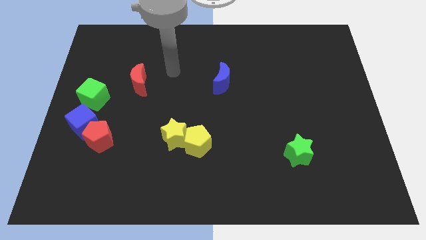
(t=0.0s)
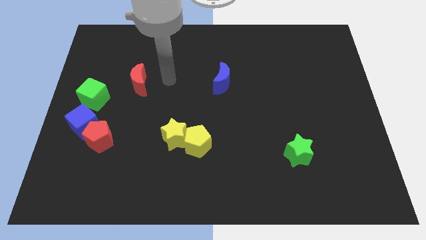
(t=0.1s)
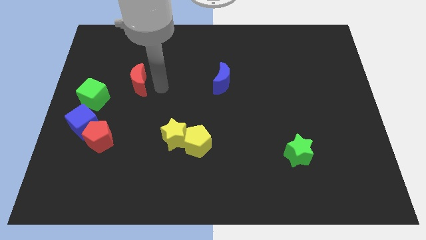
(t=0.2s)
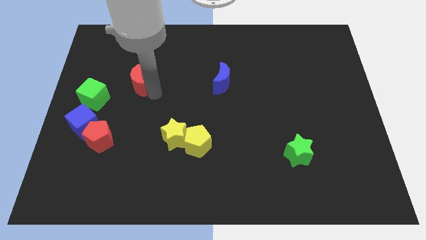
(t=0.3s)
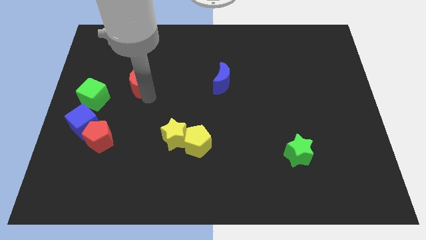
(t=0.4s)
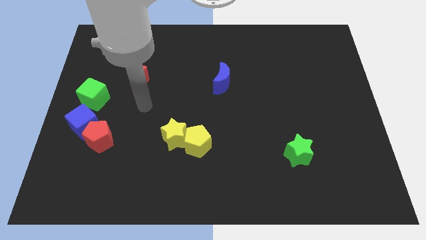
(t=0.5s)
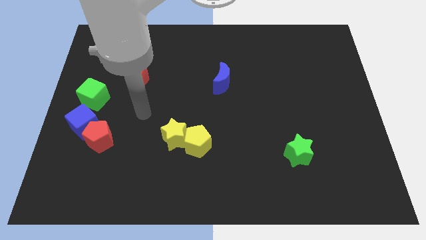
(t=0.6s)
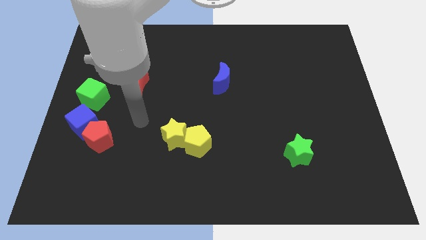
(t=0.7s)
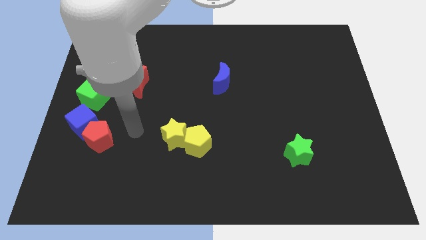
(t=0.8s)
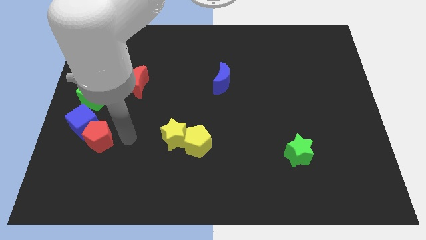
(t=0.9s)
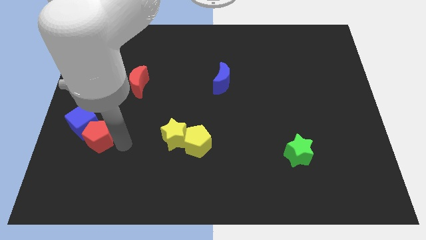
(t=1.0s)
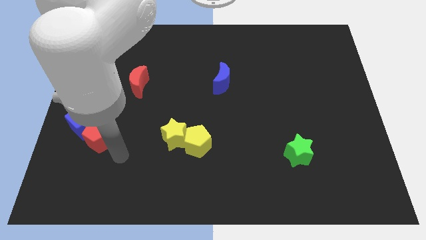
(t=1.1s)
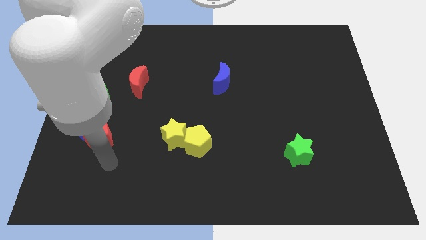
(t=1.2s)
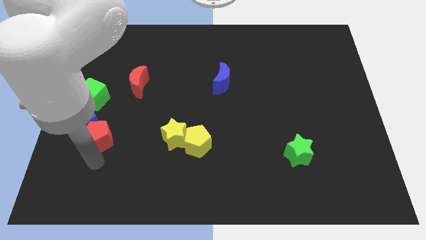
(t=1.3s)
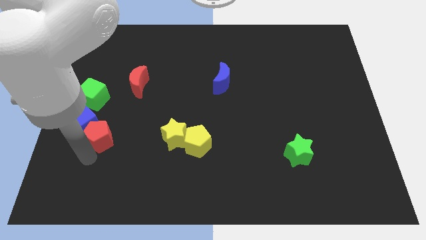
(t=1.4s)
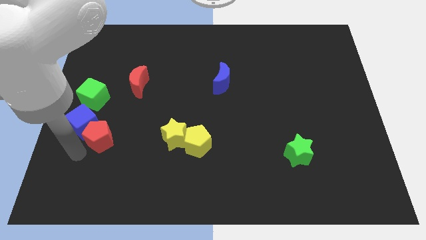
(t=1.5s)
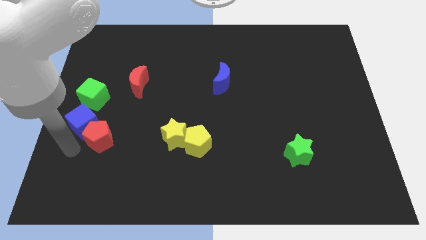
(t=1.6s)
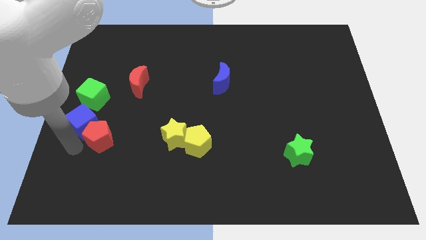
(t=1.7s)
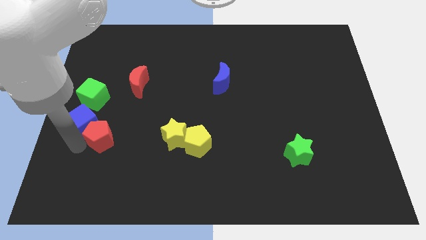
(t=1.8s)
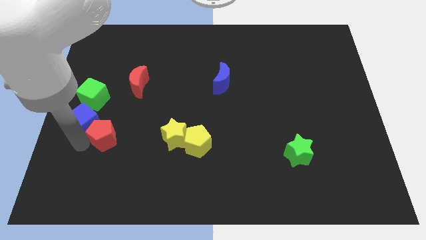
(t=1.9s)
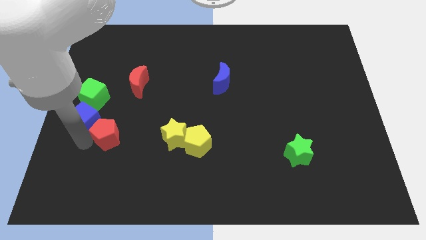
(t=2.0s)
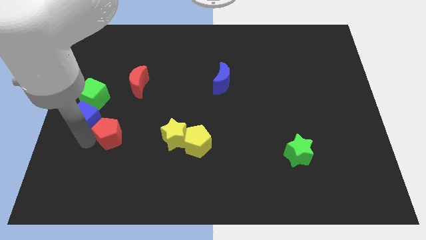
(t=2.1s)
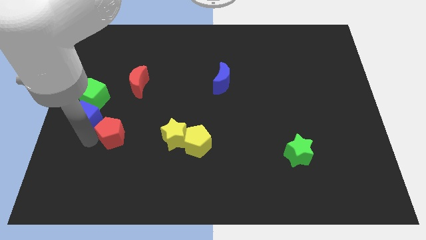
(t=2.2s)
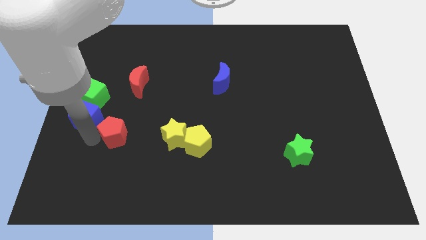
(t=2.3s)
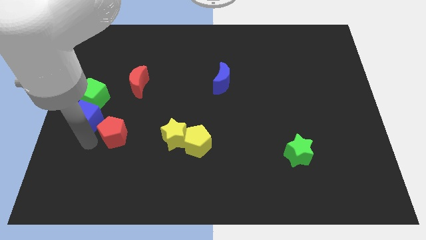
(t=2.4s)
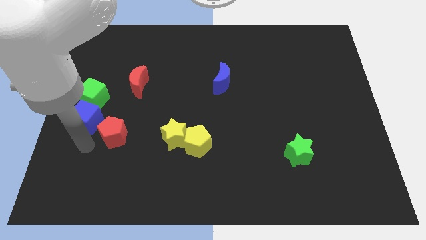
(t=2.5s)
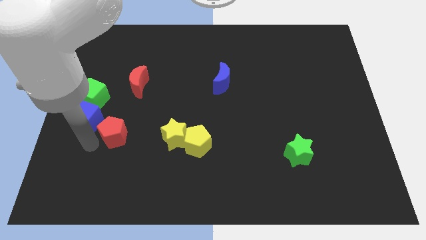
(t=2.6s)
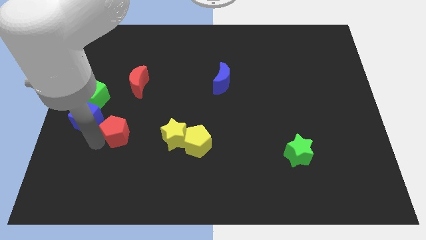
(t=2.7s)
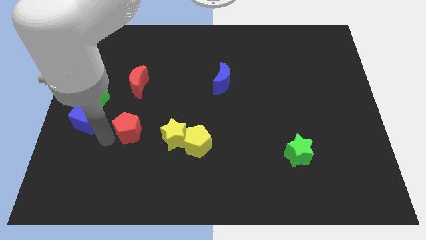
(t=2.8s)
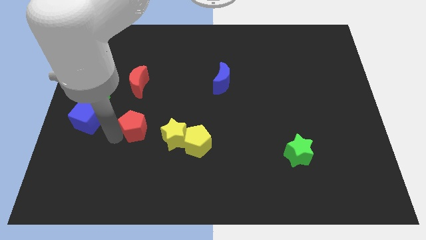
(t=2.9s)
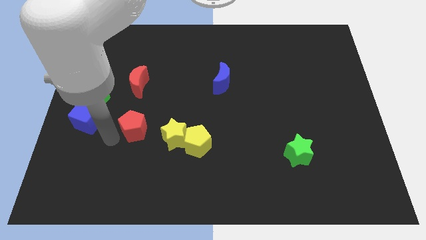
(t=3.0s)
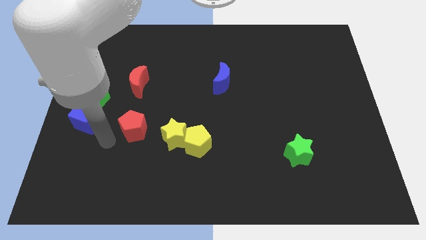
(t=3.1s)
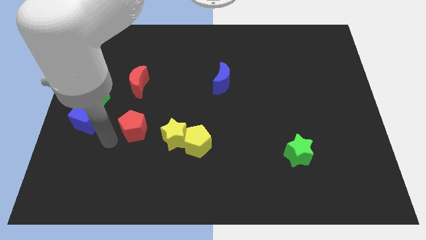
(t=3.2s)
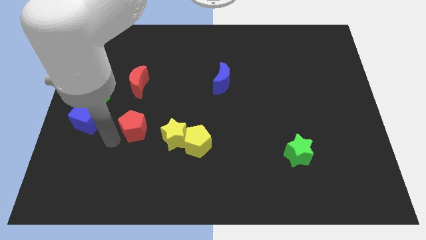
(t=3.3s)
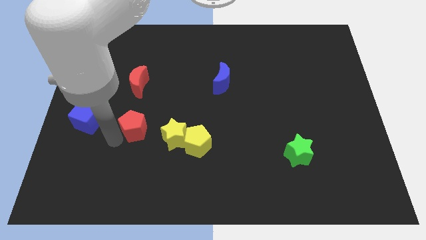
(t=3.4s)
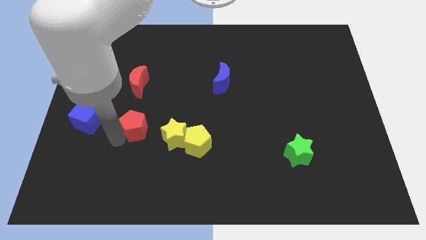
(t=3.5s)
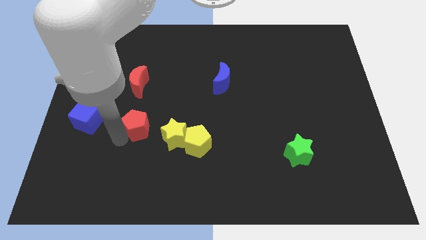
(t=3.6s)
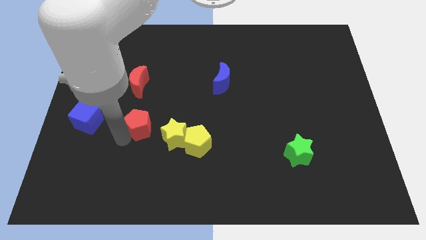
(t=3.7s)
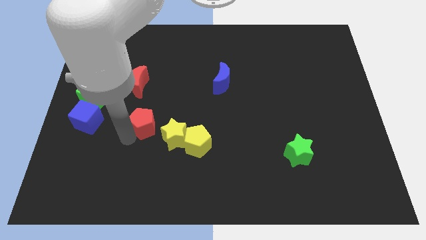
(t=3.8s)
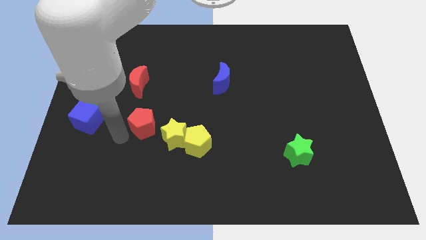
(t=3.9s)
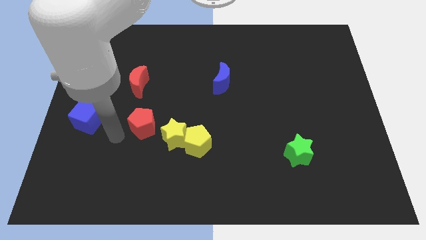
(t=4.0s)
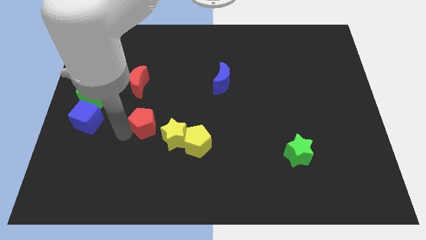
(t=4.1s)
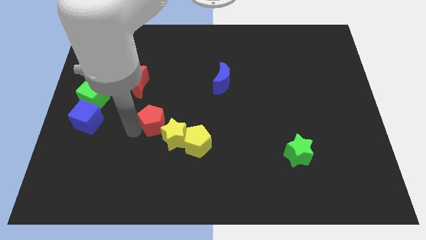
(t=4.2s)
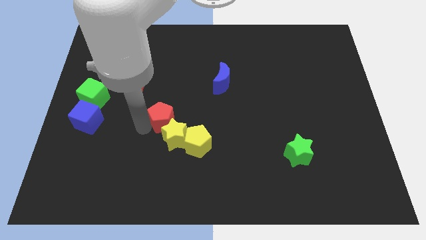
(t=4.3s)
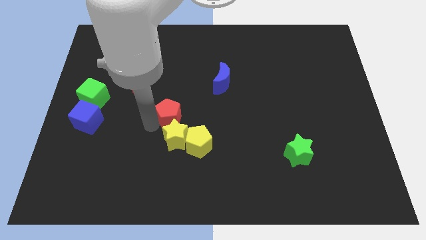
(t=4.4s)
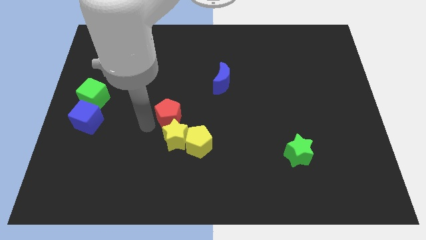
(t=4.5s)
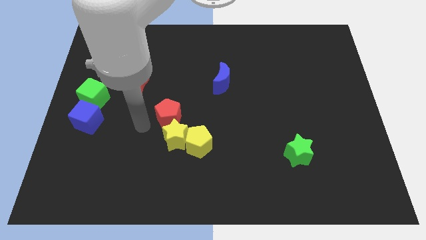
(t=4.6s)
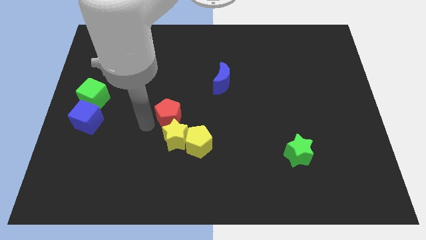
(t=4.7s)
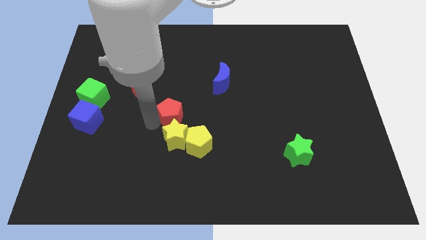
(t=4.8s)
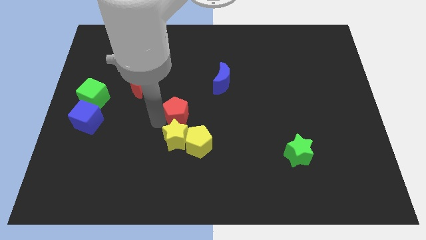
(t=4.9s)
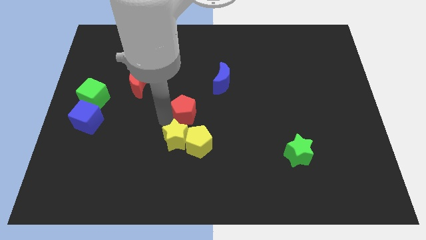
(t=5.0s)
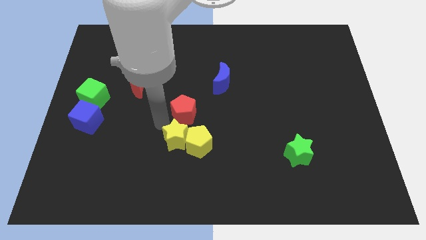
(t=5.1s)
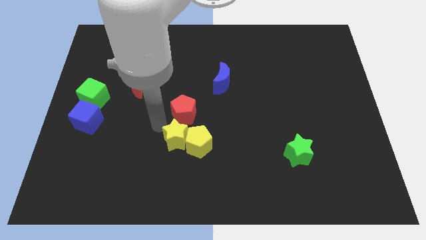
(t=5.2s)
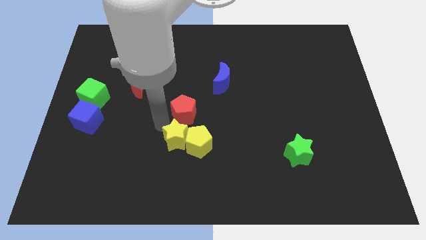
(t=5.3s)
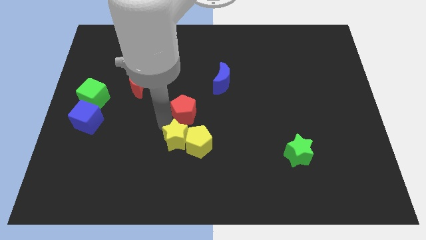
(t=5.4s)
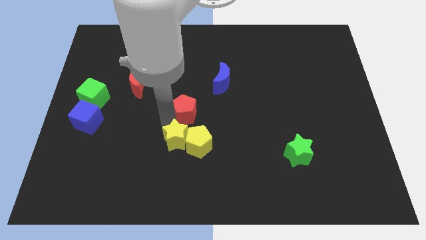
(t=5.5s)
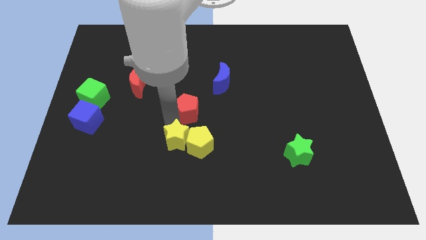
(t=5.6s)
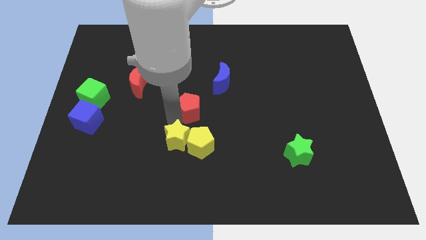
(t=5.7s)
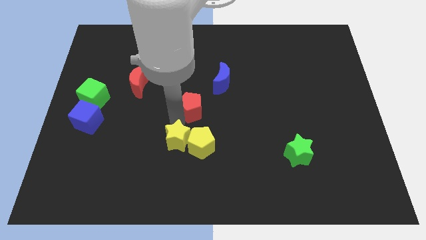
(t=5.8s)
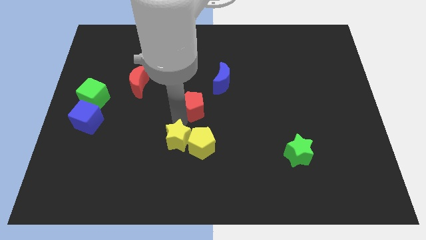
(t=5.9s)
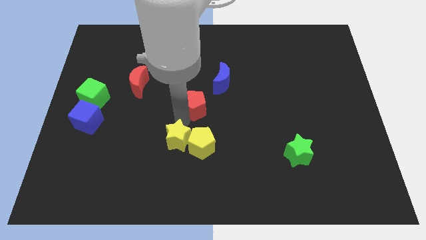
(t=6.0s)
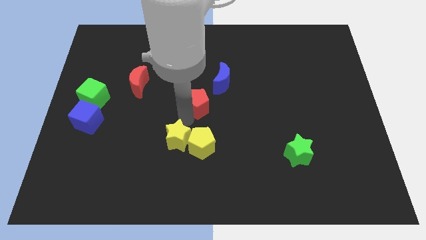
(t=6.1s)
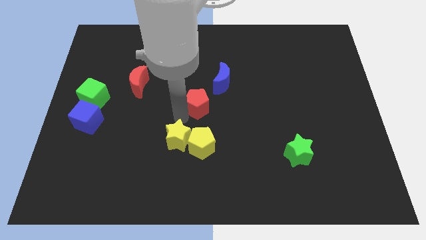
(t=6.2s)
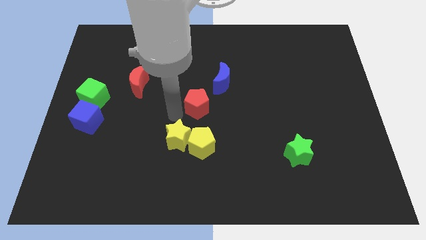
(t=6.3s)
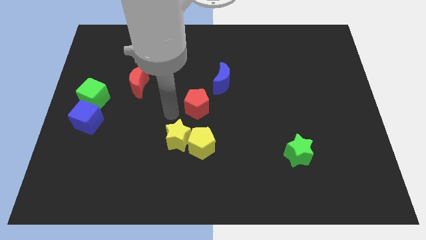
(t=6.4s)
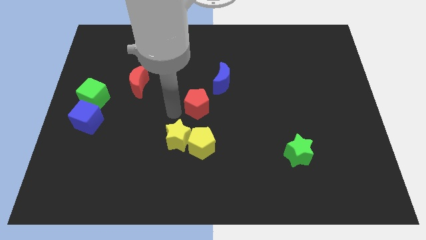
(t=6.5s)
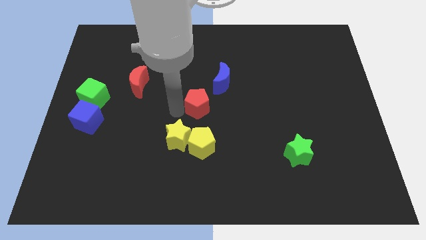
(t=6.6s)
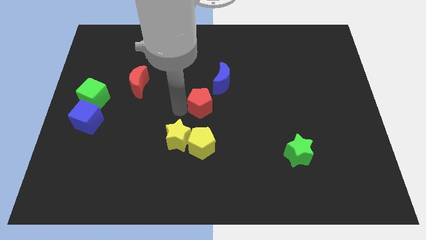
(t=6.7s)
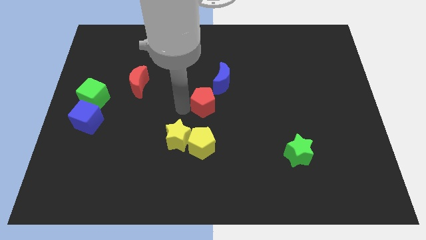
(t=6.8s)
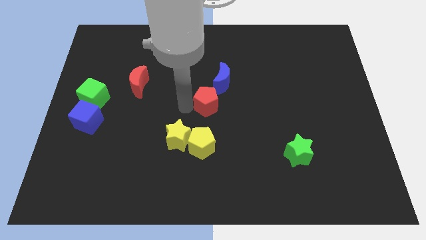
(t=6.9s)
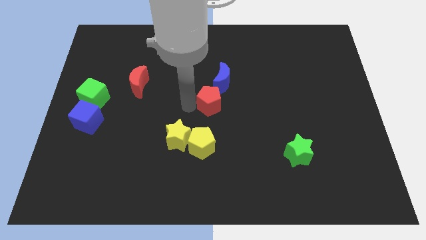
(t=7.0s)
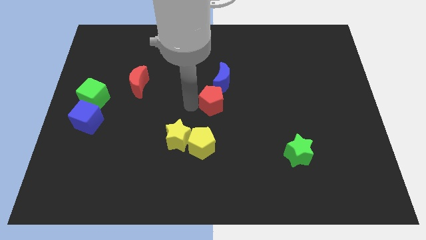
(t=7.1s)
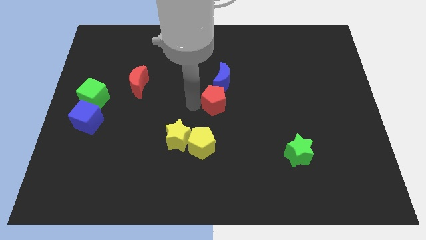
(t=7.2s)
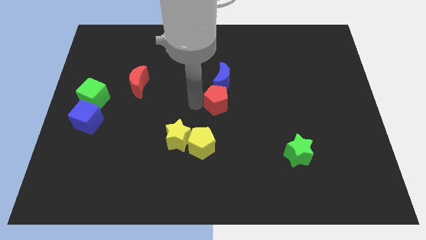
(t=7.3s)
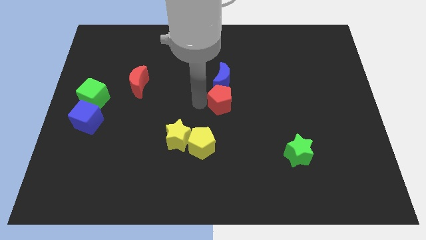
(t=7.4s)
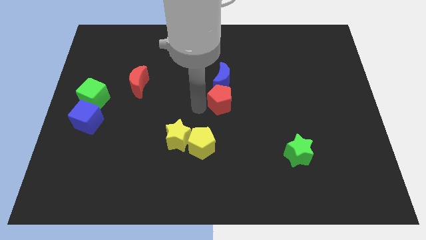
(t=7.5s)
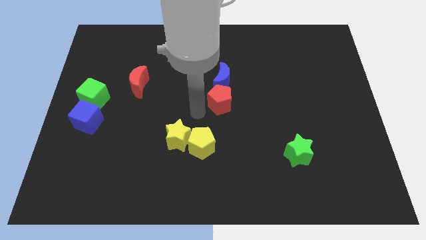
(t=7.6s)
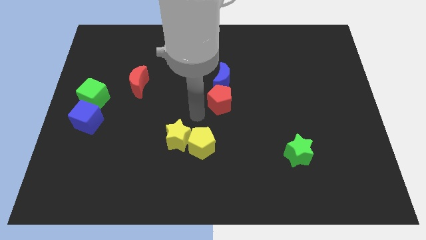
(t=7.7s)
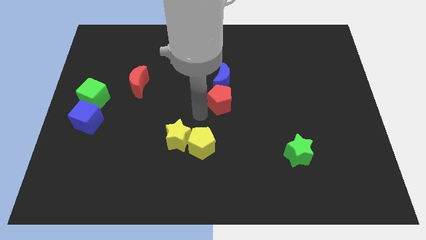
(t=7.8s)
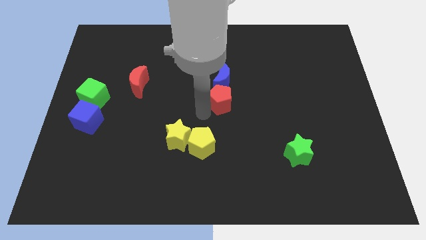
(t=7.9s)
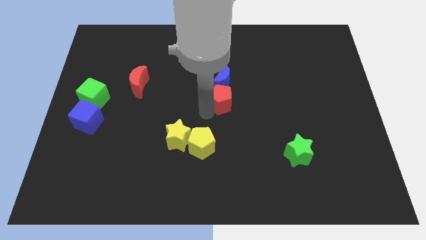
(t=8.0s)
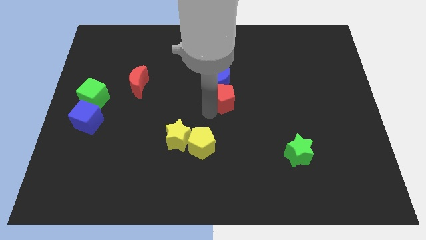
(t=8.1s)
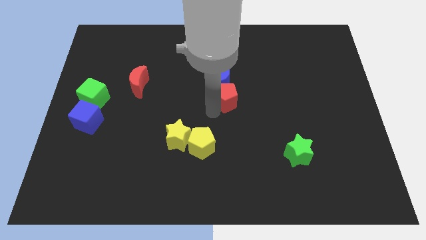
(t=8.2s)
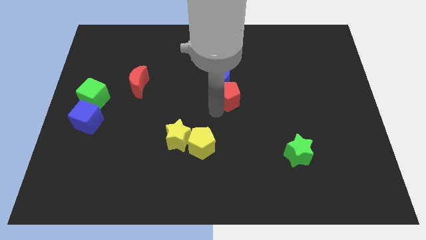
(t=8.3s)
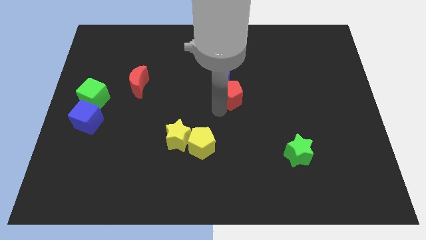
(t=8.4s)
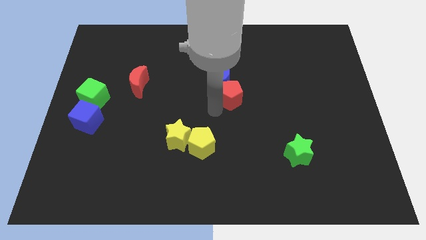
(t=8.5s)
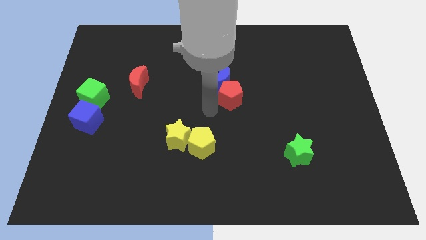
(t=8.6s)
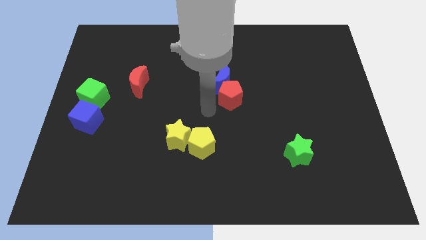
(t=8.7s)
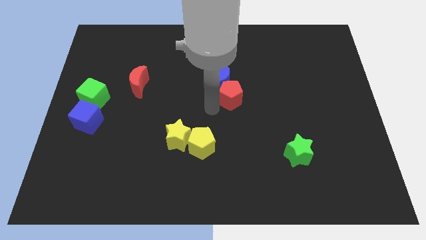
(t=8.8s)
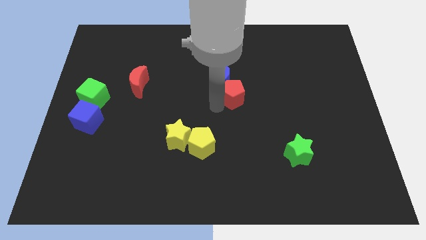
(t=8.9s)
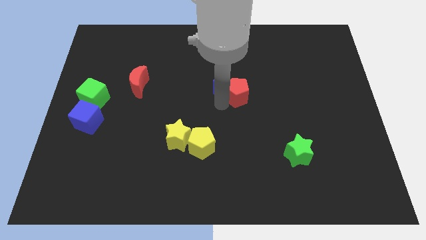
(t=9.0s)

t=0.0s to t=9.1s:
move the red pentagon to the right of the blue moon
